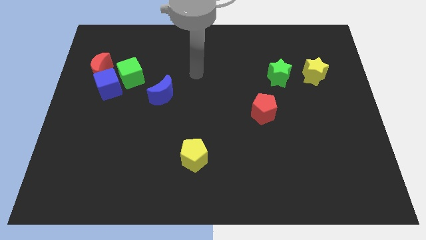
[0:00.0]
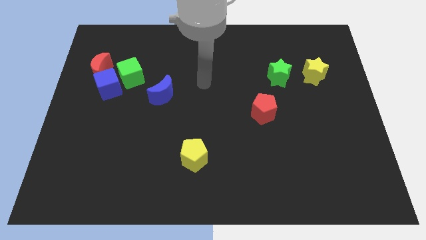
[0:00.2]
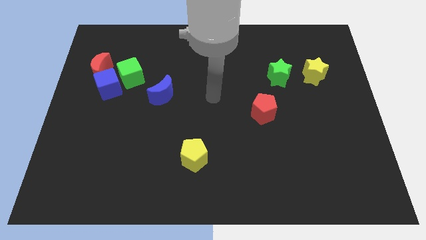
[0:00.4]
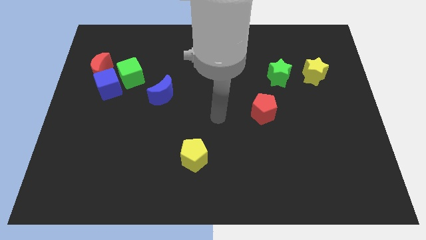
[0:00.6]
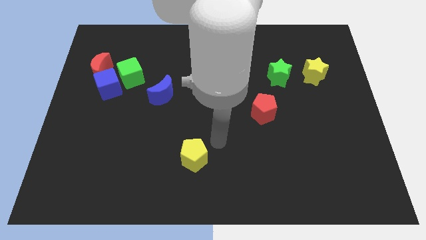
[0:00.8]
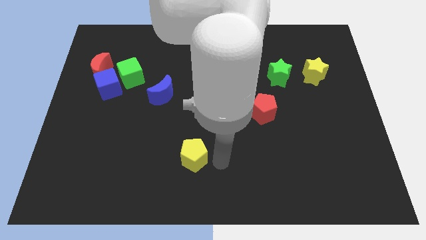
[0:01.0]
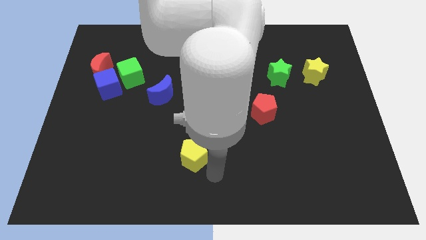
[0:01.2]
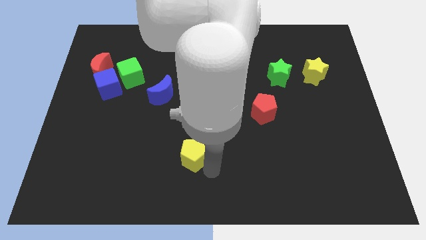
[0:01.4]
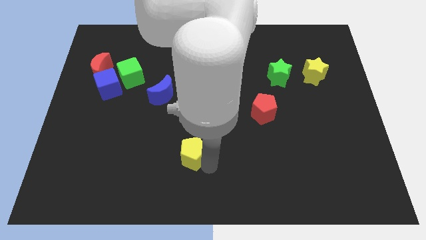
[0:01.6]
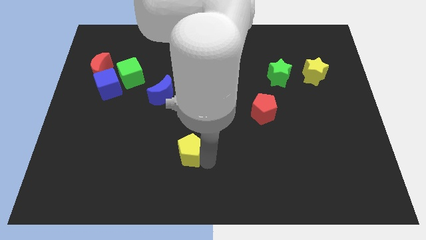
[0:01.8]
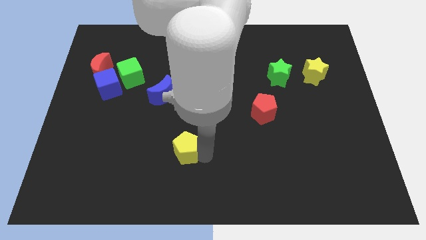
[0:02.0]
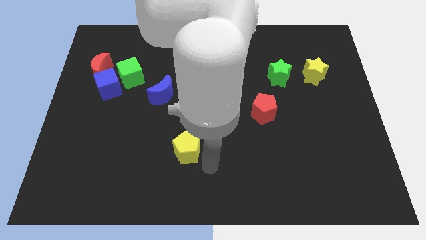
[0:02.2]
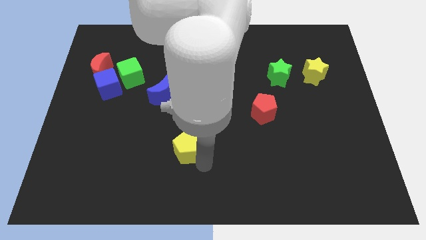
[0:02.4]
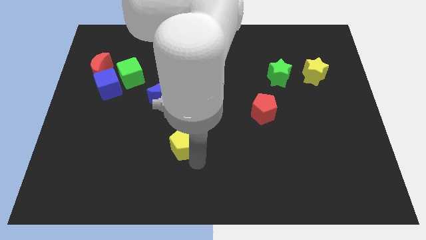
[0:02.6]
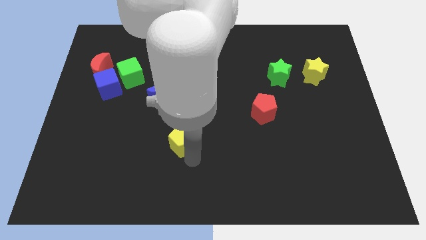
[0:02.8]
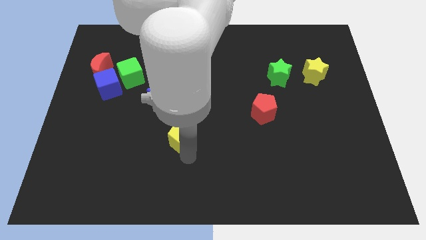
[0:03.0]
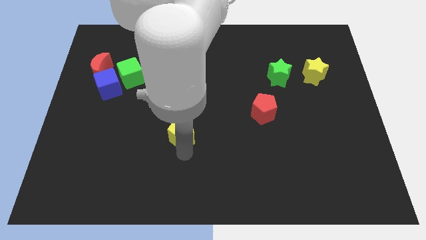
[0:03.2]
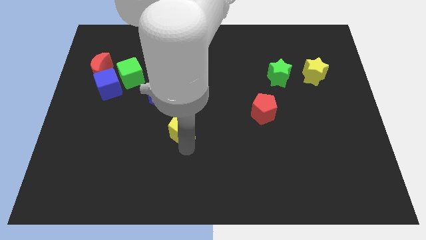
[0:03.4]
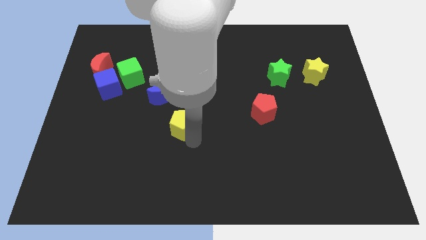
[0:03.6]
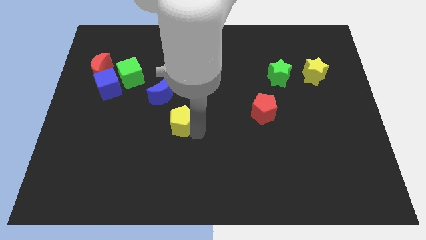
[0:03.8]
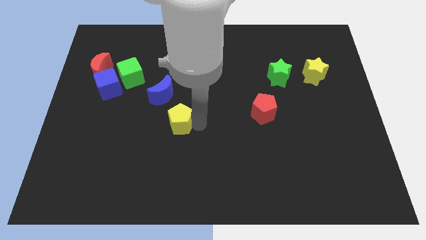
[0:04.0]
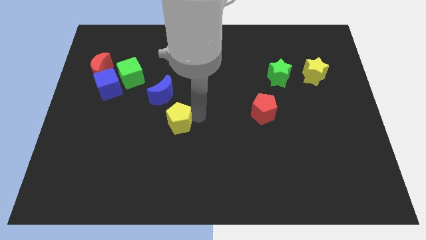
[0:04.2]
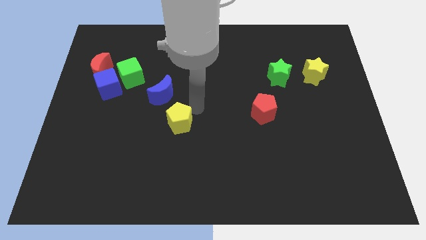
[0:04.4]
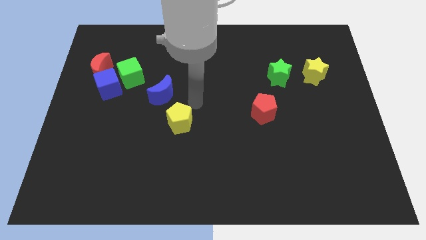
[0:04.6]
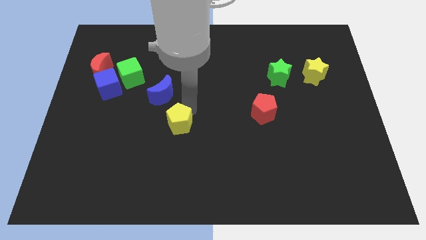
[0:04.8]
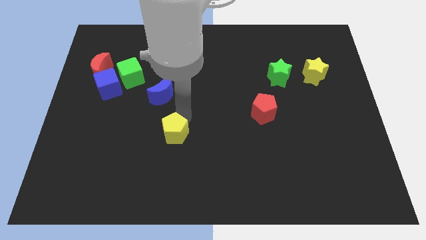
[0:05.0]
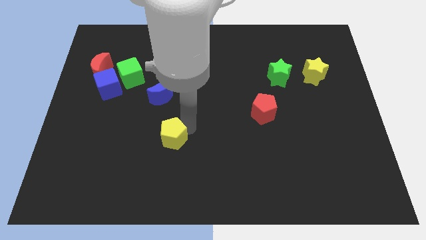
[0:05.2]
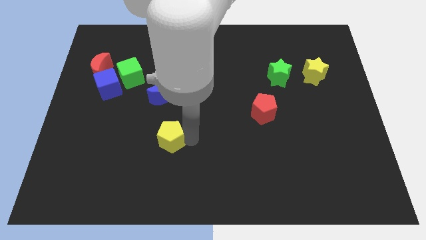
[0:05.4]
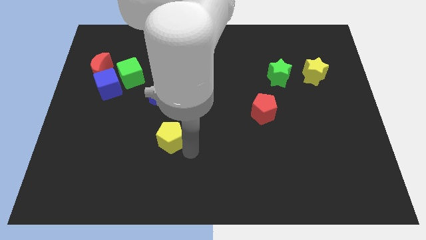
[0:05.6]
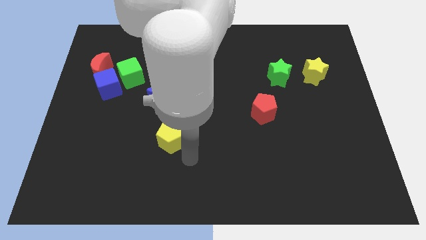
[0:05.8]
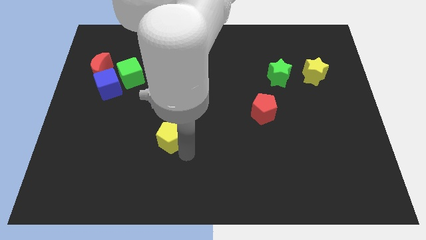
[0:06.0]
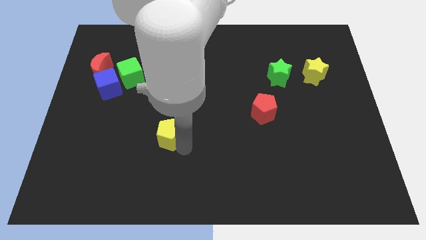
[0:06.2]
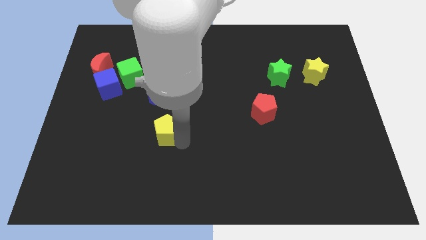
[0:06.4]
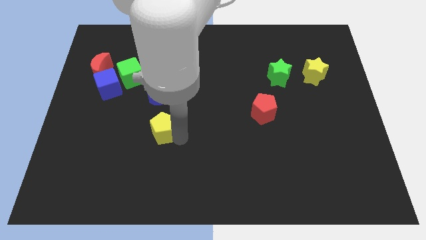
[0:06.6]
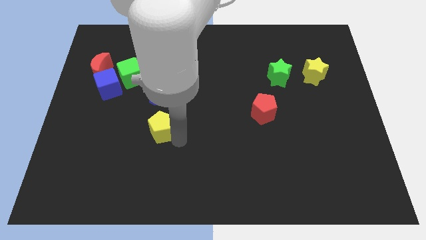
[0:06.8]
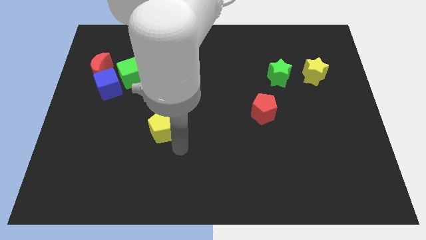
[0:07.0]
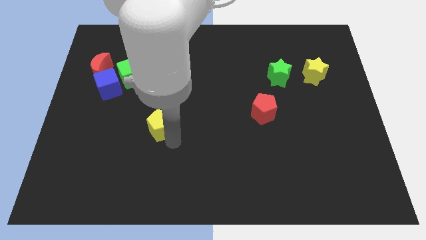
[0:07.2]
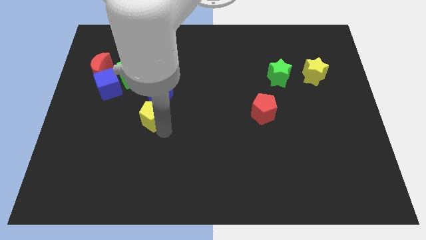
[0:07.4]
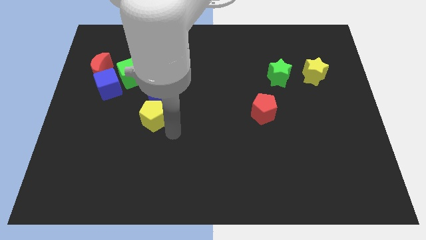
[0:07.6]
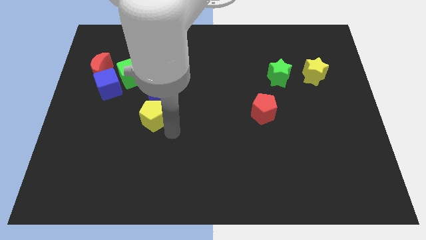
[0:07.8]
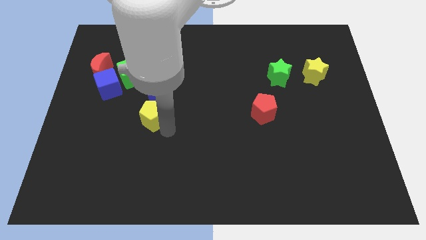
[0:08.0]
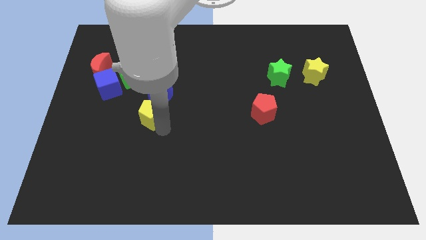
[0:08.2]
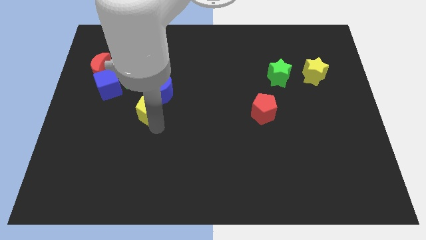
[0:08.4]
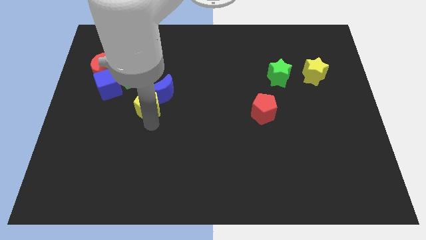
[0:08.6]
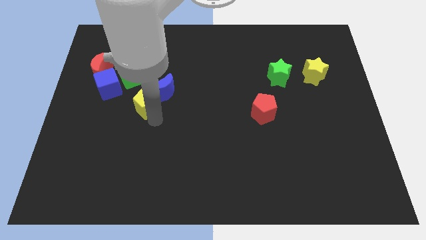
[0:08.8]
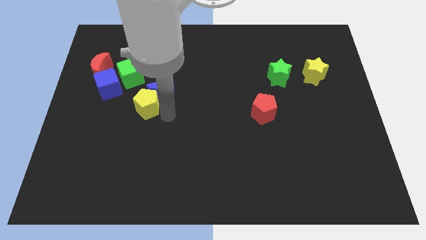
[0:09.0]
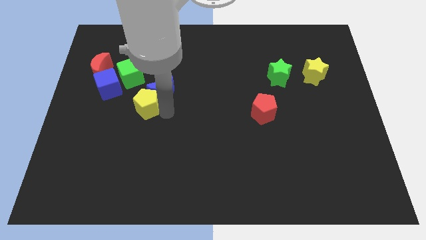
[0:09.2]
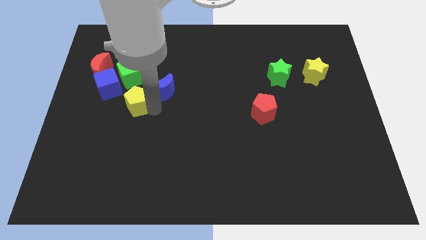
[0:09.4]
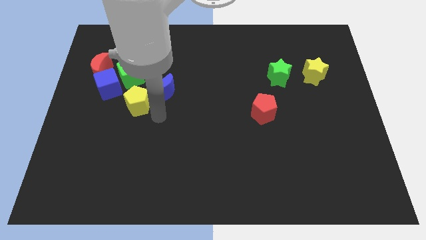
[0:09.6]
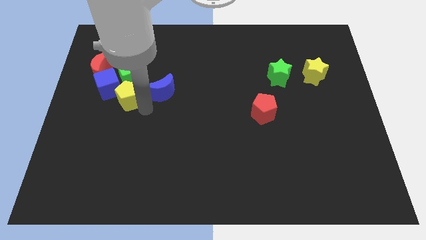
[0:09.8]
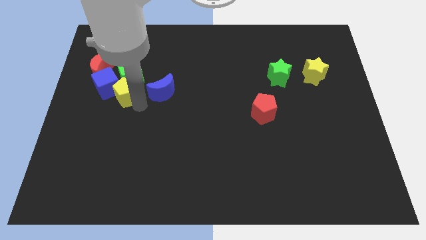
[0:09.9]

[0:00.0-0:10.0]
put the yellow pentagon towards the blue cube

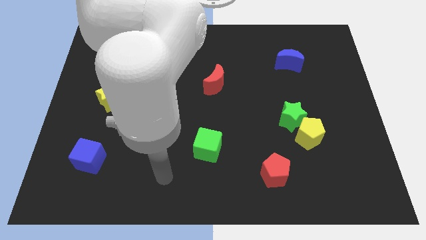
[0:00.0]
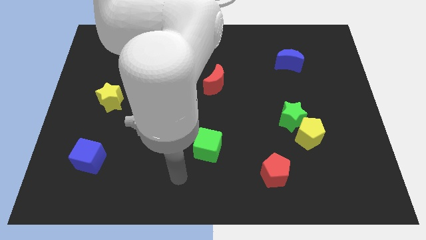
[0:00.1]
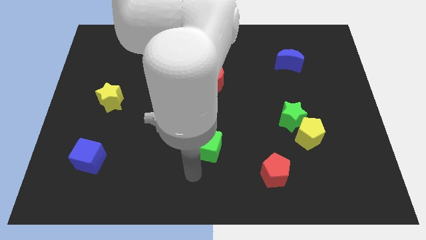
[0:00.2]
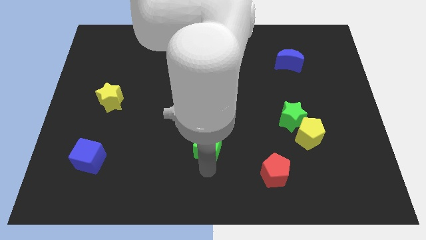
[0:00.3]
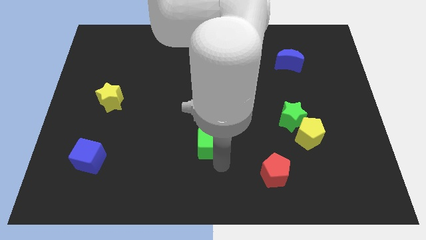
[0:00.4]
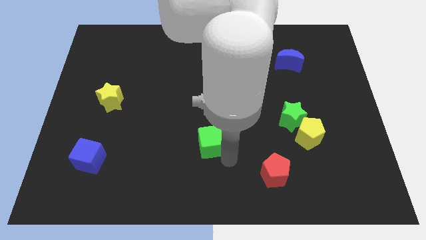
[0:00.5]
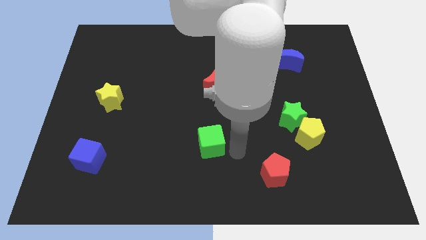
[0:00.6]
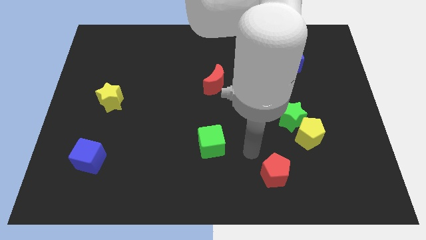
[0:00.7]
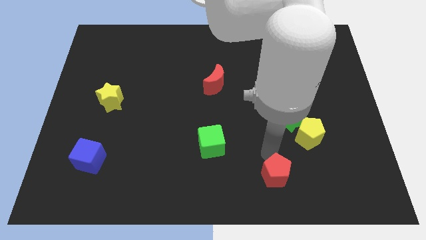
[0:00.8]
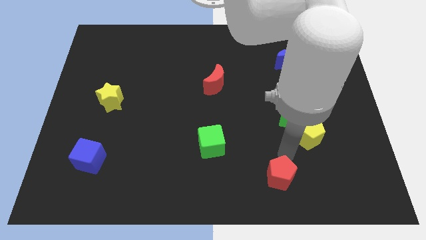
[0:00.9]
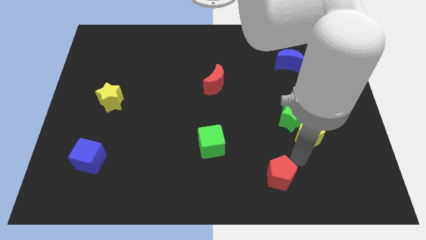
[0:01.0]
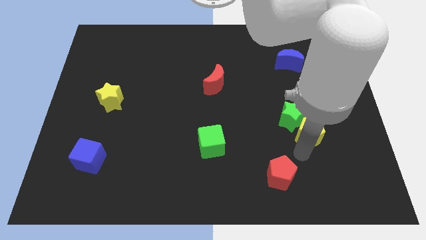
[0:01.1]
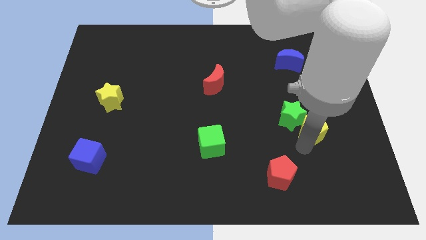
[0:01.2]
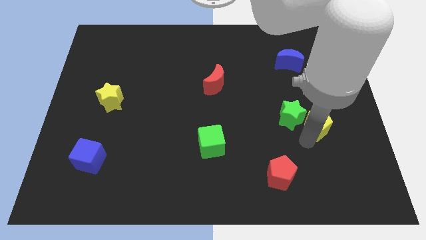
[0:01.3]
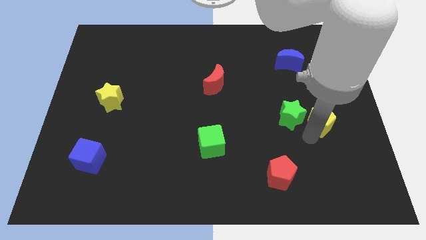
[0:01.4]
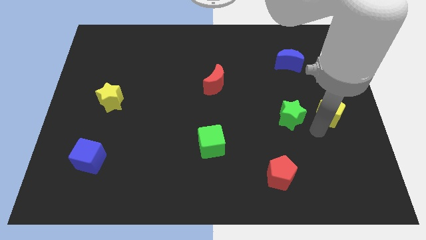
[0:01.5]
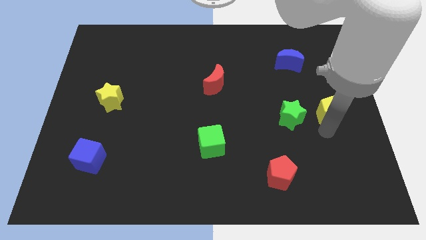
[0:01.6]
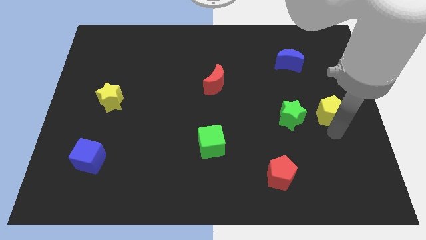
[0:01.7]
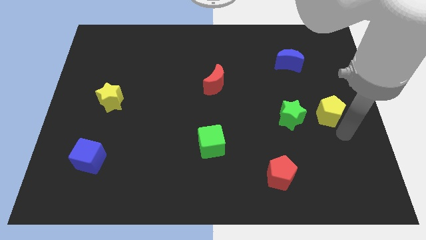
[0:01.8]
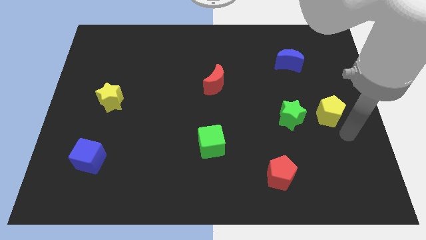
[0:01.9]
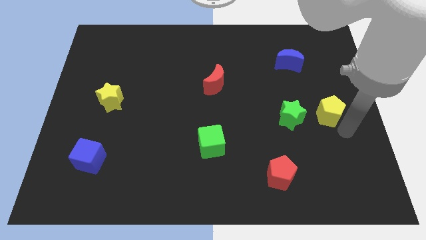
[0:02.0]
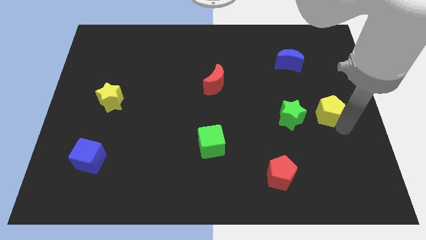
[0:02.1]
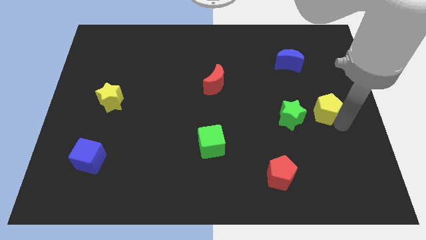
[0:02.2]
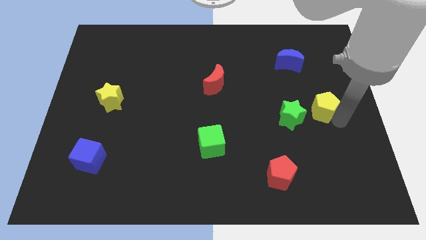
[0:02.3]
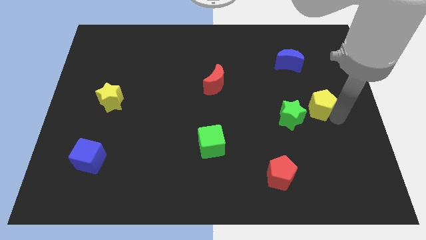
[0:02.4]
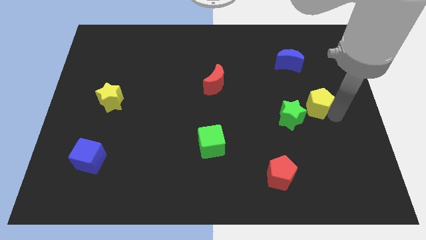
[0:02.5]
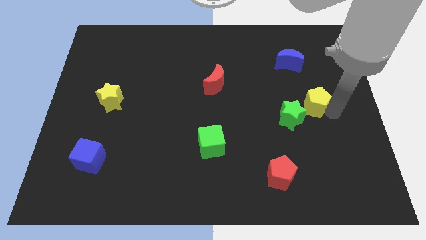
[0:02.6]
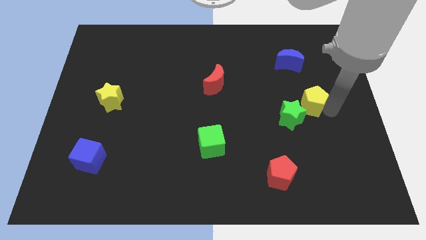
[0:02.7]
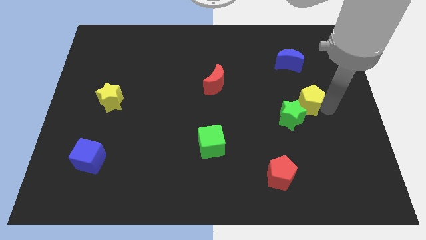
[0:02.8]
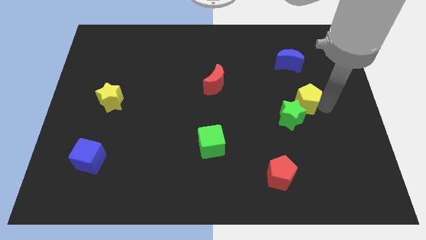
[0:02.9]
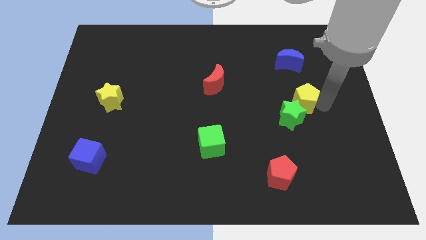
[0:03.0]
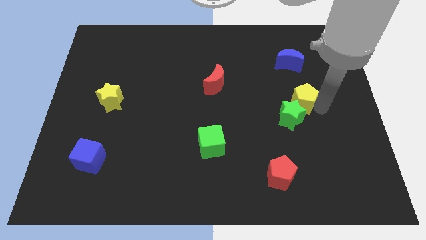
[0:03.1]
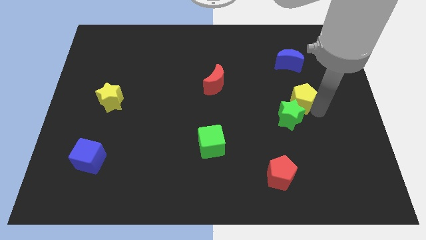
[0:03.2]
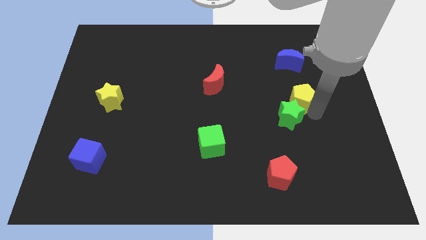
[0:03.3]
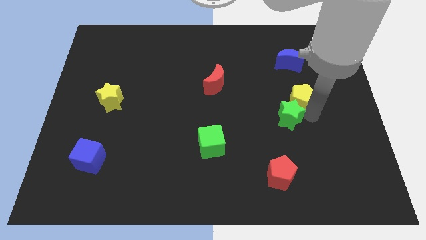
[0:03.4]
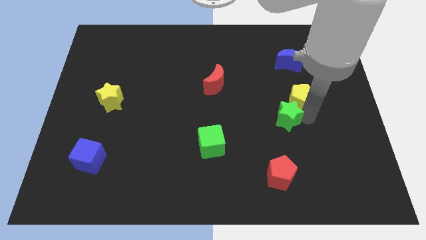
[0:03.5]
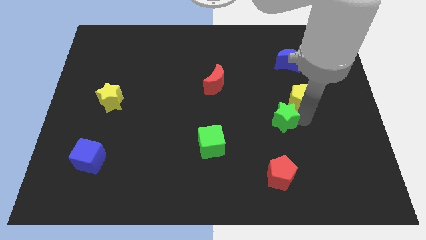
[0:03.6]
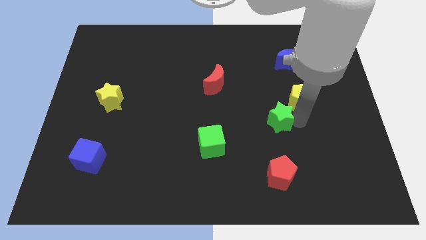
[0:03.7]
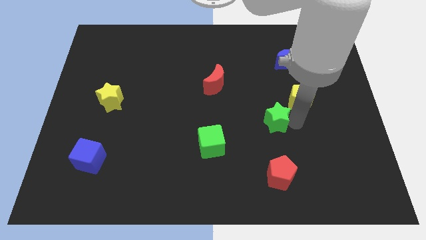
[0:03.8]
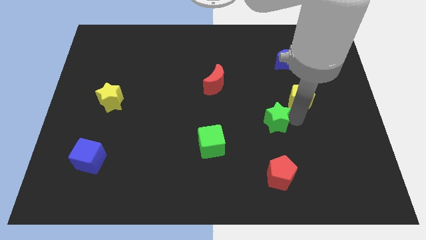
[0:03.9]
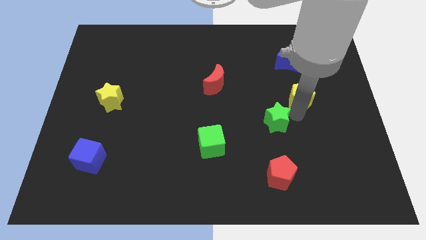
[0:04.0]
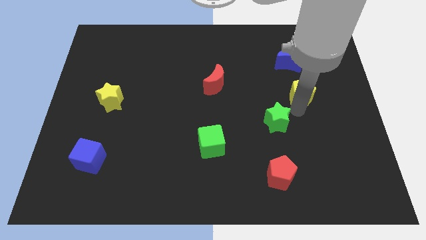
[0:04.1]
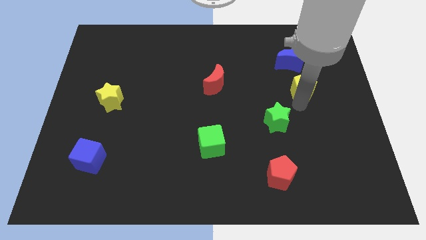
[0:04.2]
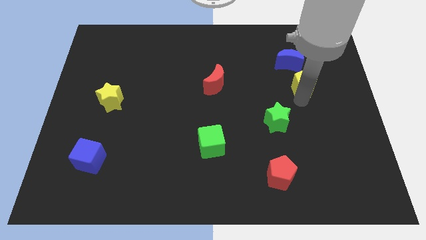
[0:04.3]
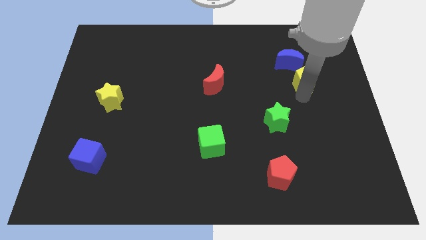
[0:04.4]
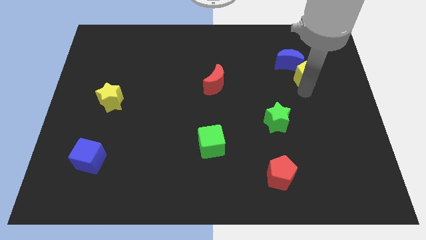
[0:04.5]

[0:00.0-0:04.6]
move the yellow pentagon close to the blue moon
